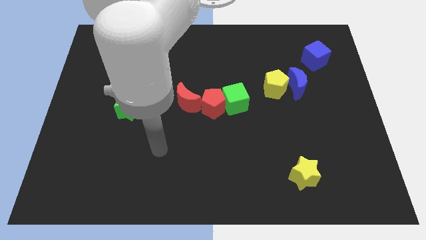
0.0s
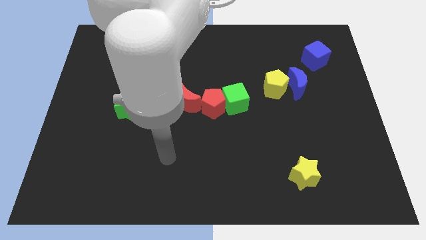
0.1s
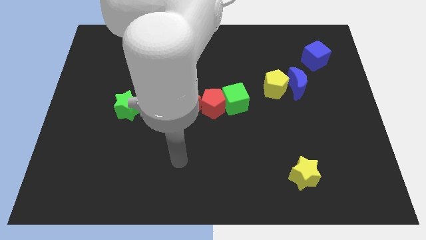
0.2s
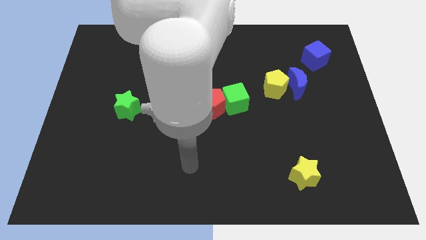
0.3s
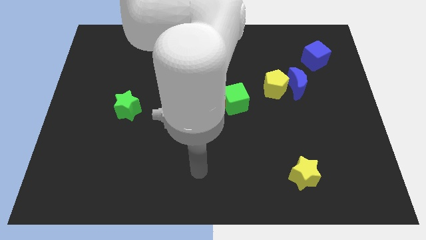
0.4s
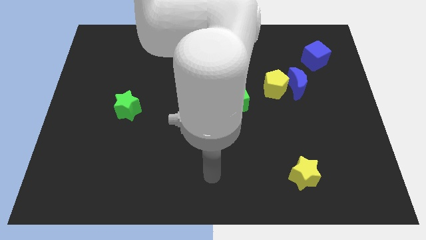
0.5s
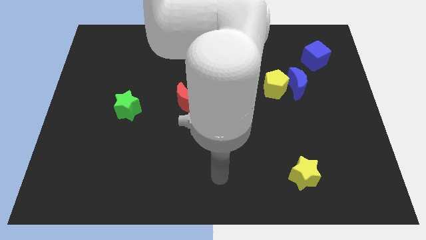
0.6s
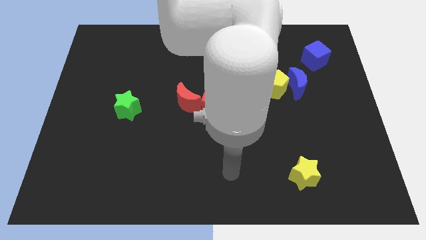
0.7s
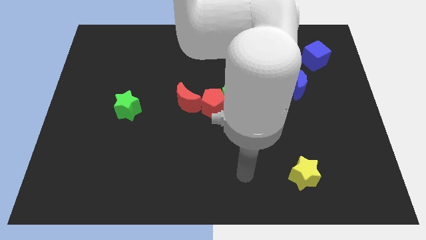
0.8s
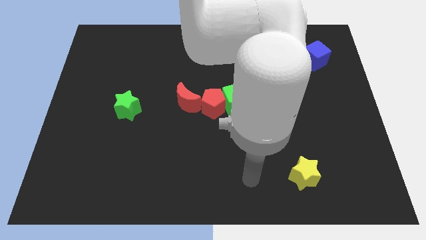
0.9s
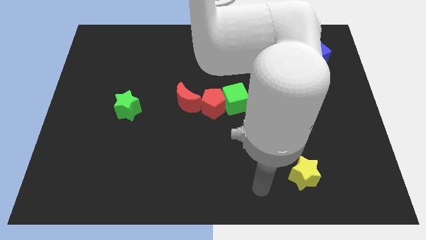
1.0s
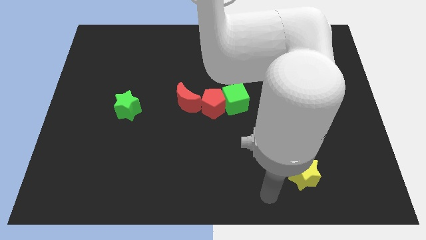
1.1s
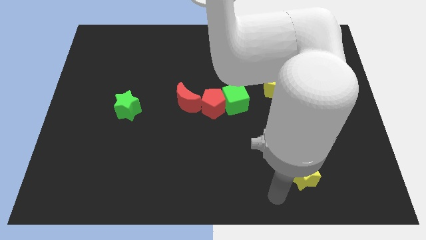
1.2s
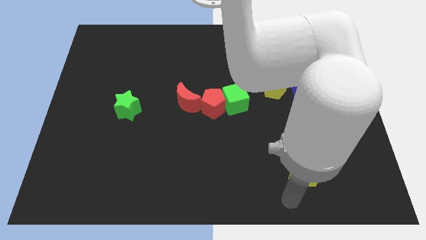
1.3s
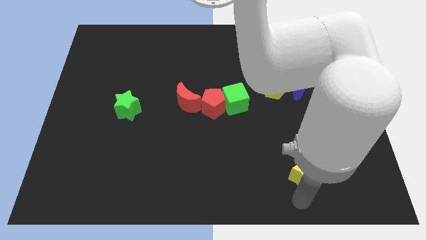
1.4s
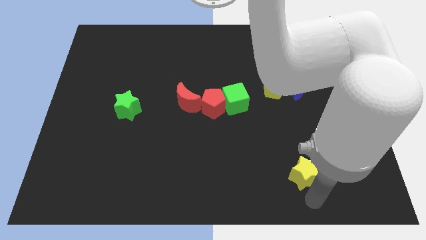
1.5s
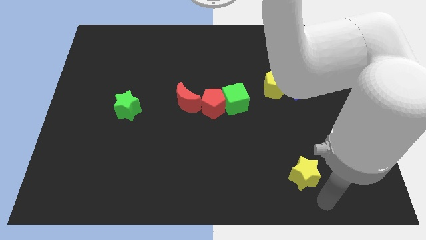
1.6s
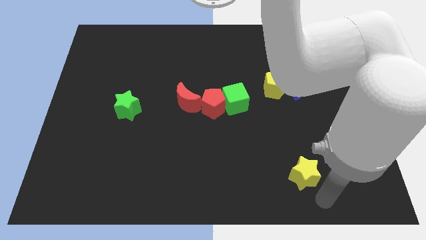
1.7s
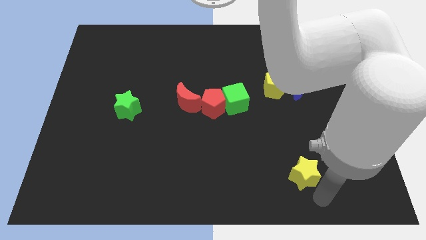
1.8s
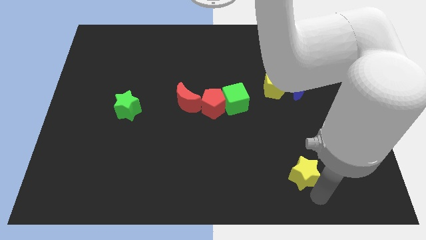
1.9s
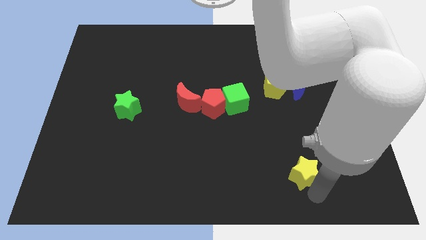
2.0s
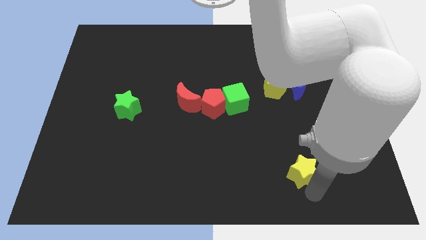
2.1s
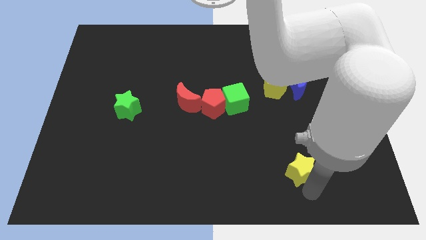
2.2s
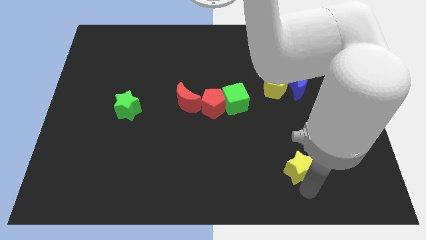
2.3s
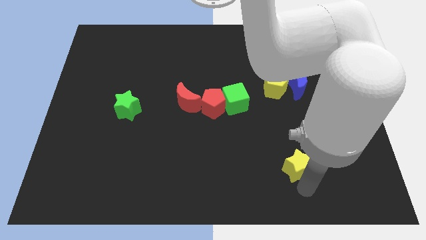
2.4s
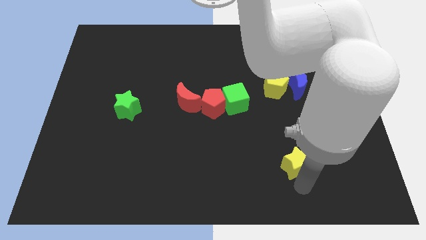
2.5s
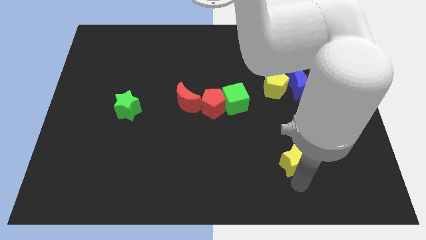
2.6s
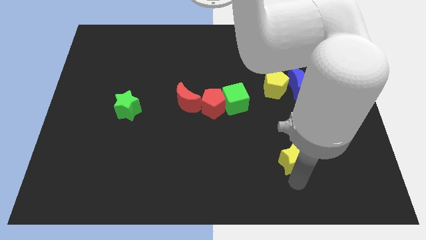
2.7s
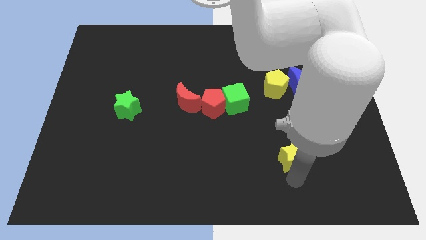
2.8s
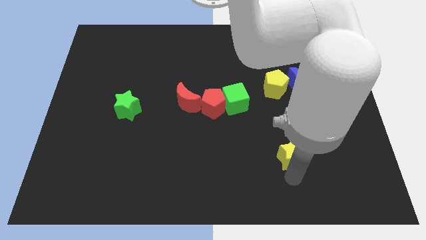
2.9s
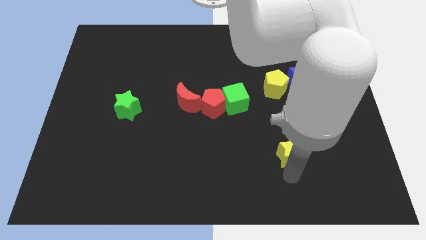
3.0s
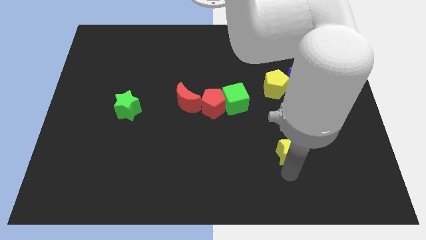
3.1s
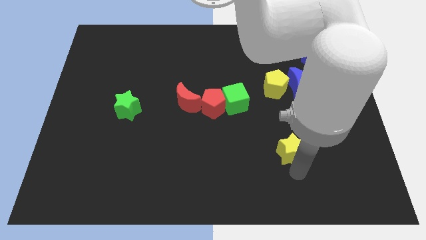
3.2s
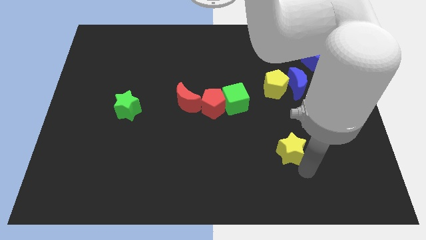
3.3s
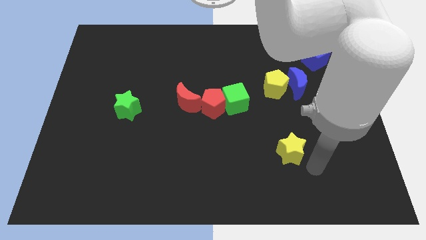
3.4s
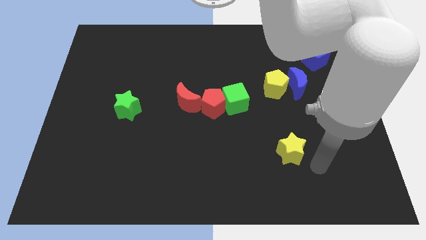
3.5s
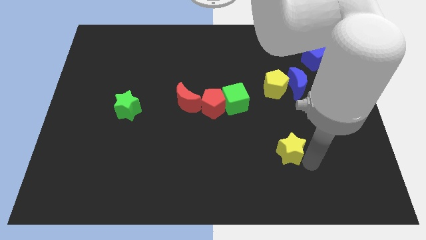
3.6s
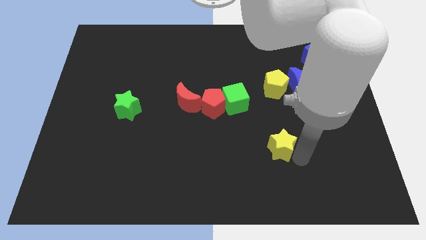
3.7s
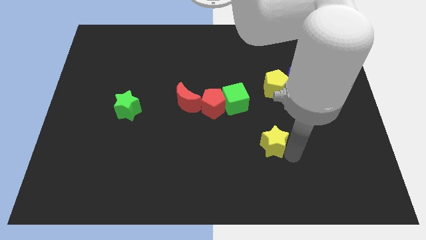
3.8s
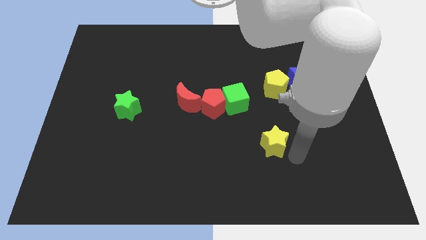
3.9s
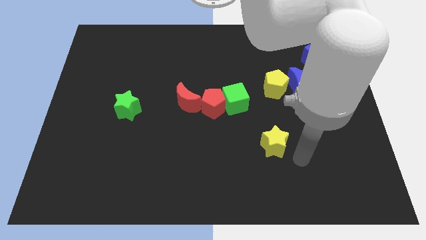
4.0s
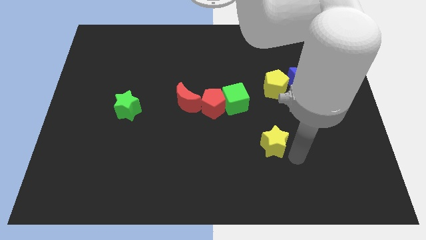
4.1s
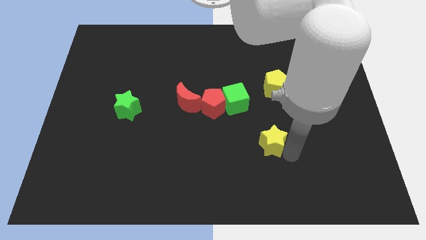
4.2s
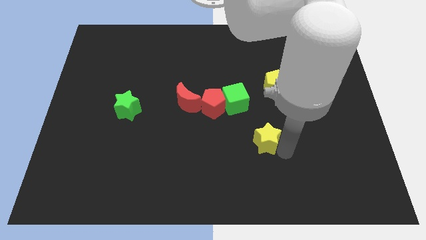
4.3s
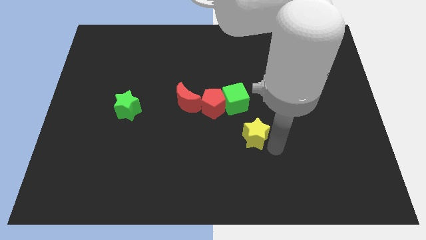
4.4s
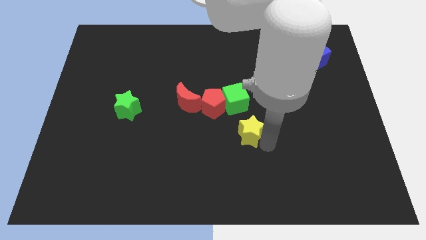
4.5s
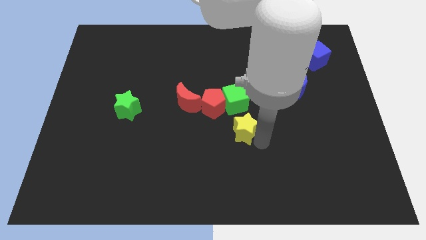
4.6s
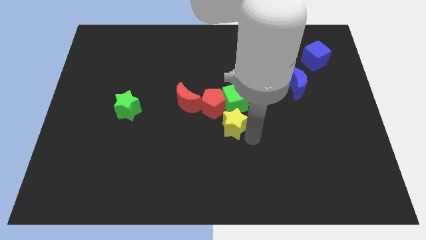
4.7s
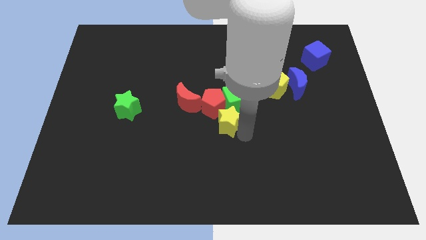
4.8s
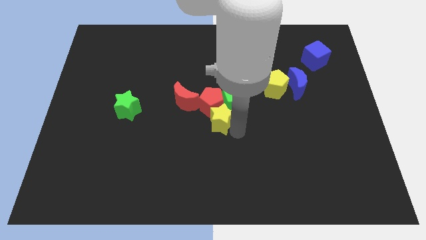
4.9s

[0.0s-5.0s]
push the yellow star close to the red pentagon

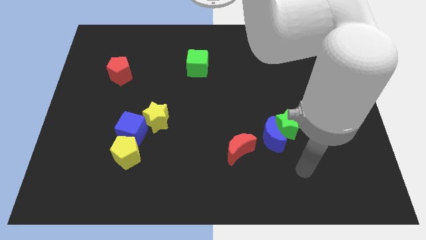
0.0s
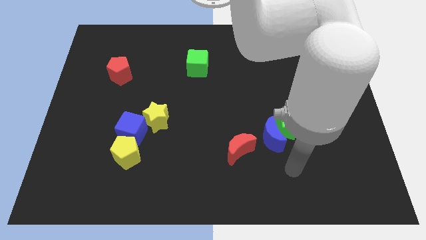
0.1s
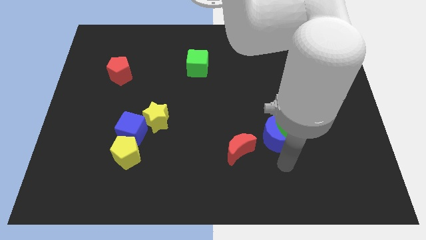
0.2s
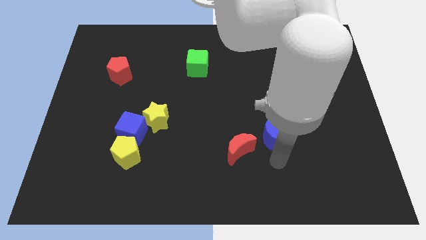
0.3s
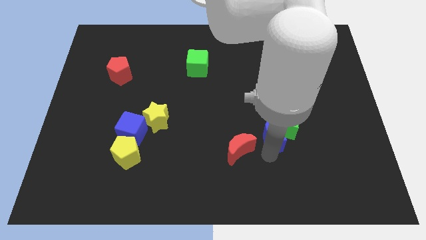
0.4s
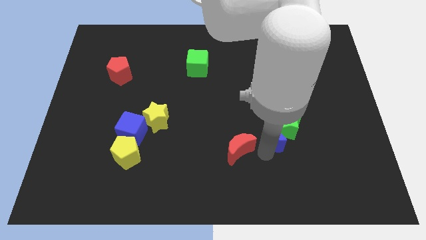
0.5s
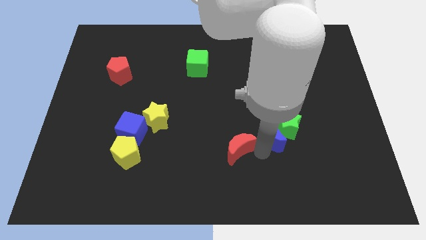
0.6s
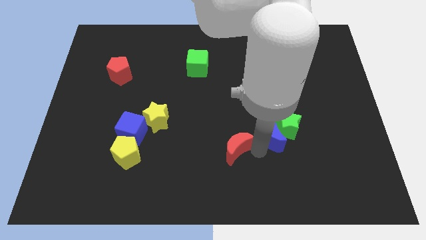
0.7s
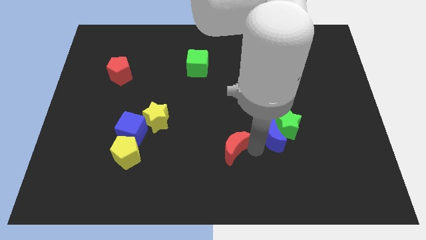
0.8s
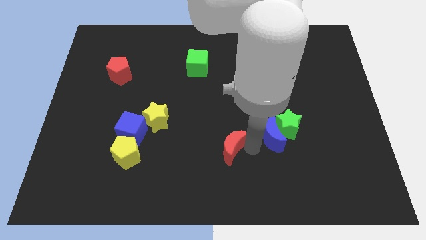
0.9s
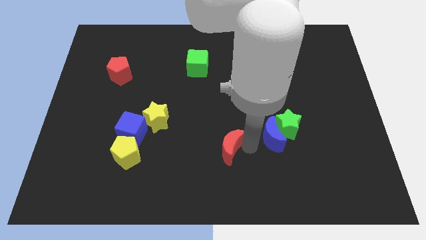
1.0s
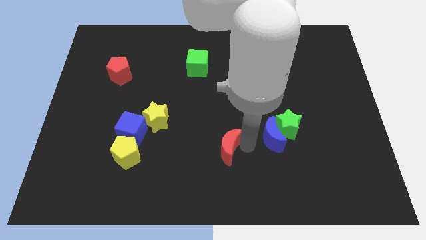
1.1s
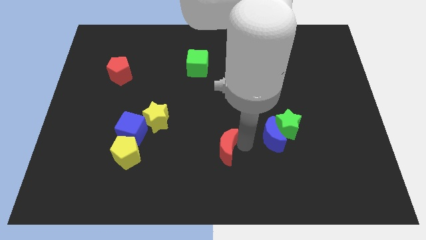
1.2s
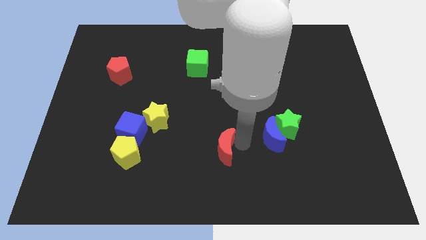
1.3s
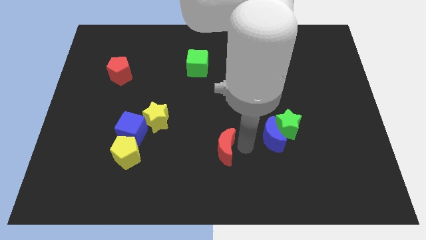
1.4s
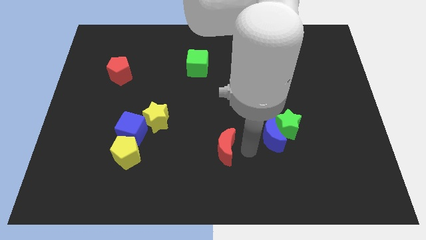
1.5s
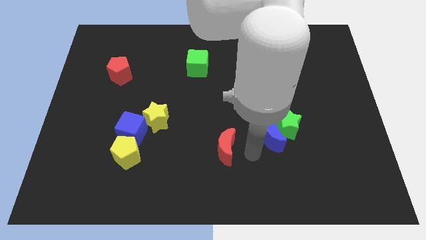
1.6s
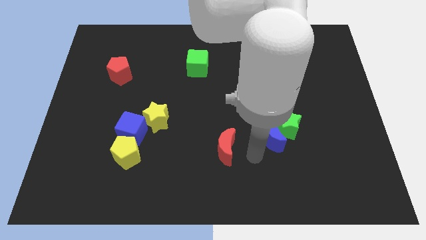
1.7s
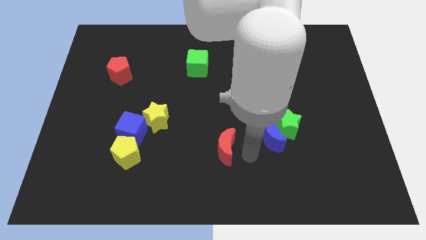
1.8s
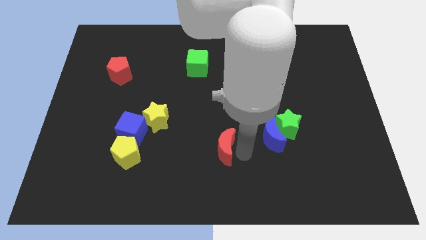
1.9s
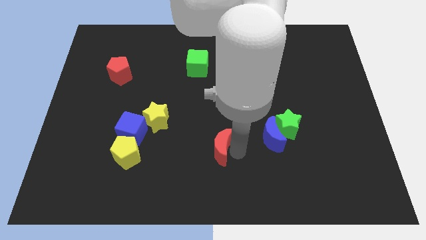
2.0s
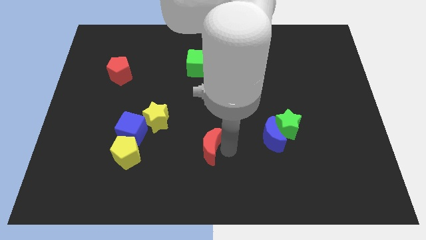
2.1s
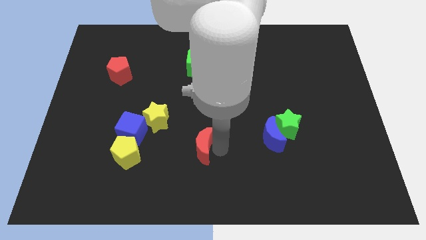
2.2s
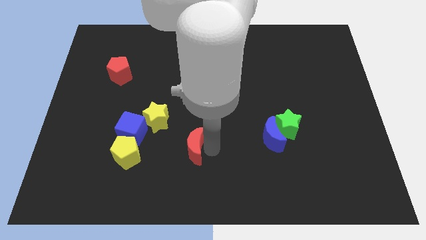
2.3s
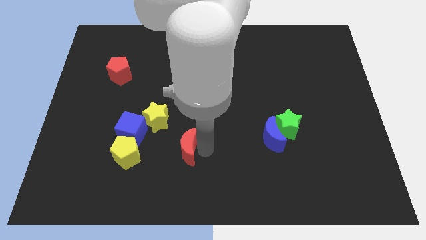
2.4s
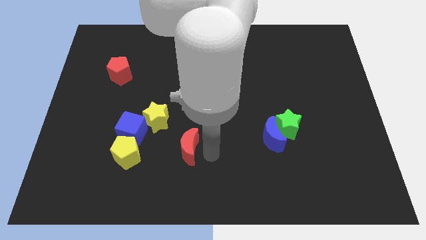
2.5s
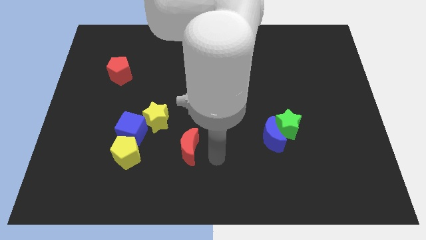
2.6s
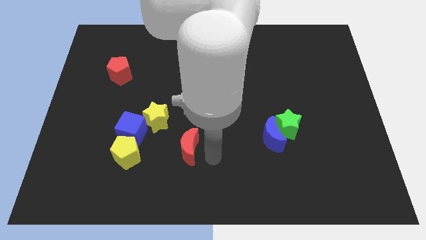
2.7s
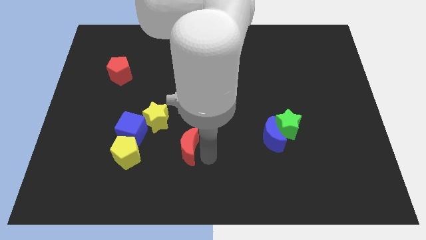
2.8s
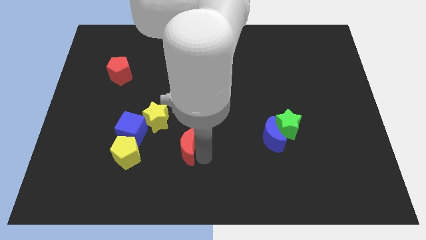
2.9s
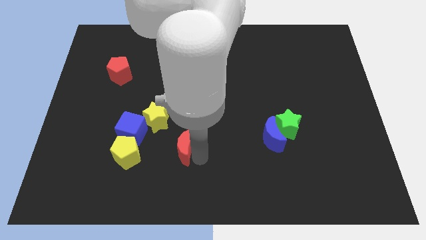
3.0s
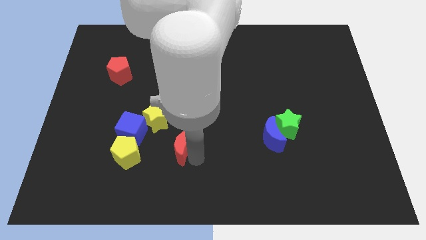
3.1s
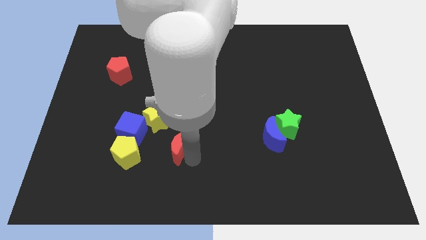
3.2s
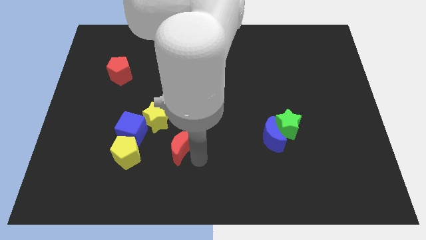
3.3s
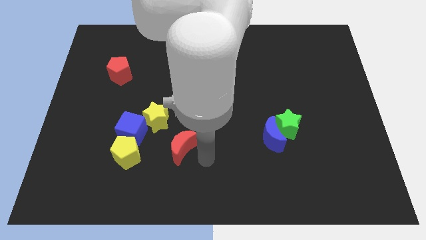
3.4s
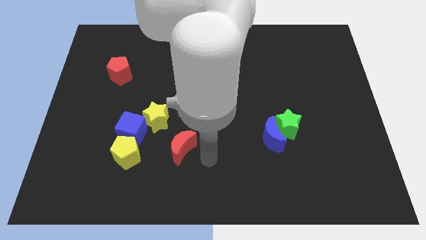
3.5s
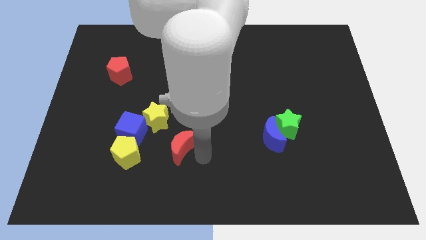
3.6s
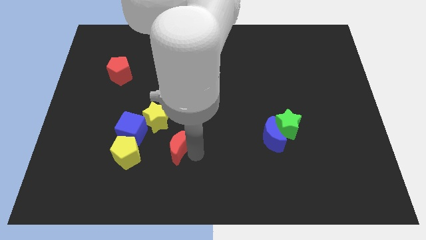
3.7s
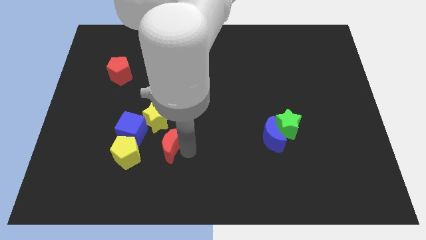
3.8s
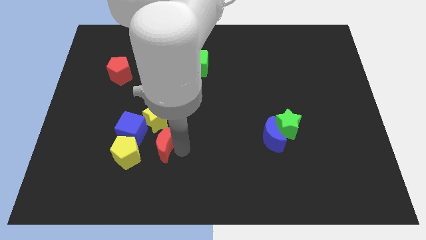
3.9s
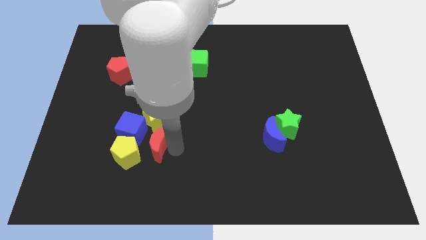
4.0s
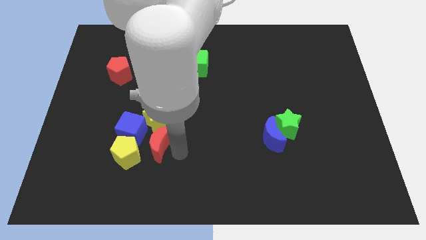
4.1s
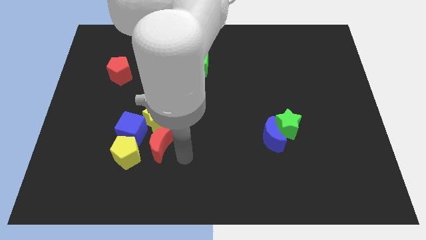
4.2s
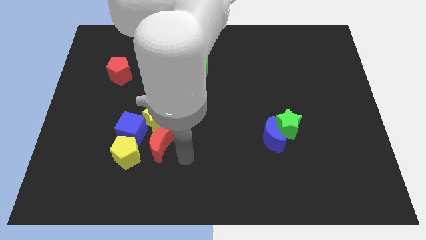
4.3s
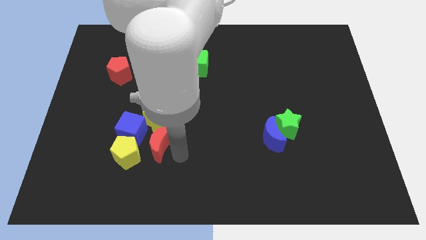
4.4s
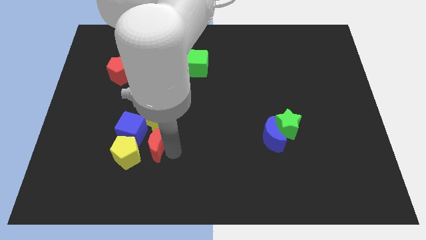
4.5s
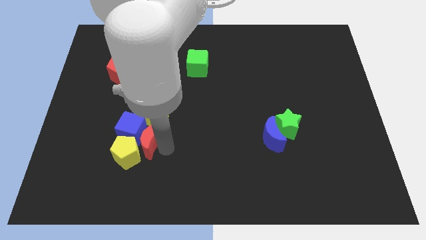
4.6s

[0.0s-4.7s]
move the red moon to the blue cube
